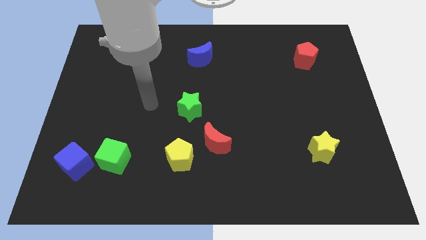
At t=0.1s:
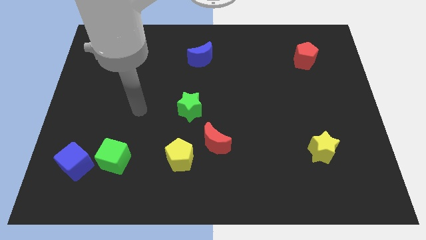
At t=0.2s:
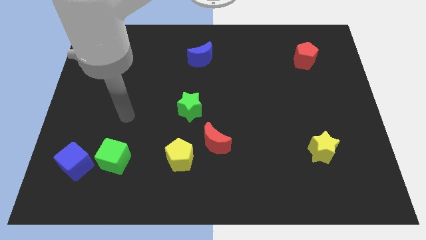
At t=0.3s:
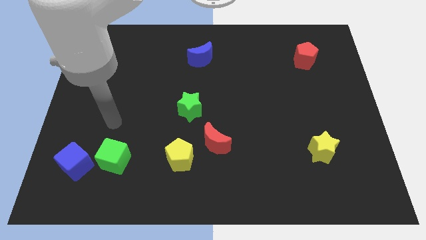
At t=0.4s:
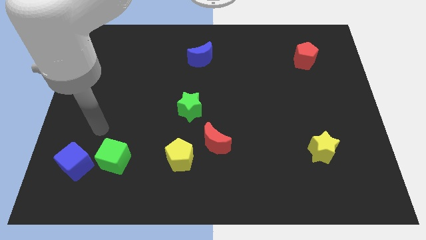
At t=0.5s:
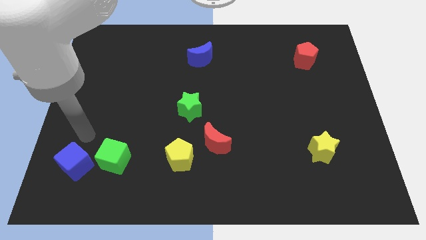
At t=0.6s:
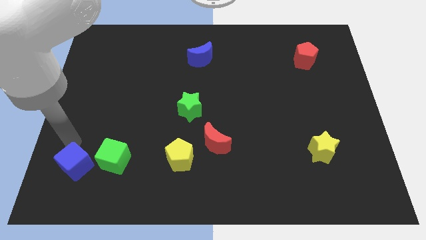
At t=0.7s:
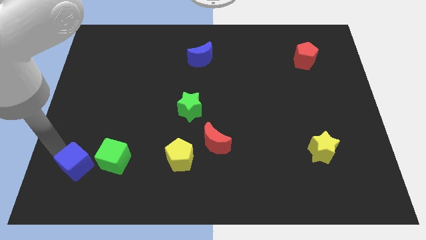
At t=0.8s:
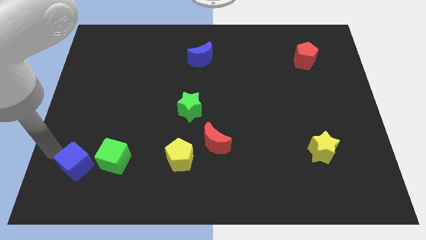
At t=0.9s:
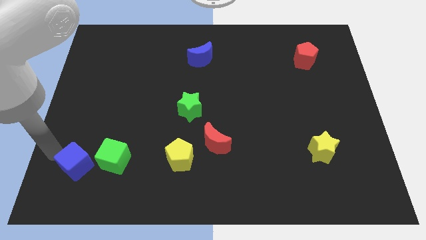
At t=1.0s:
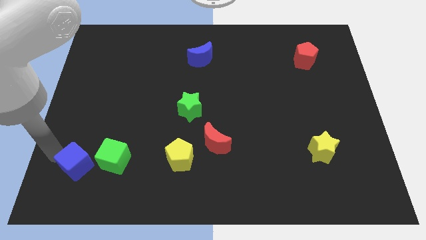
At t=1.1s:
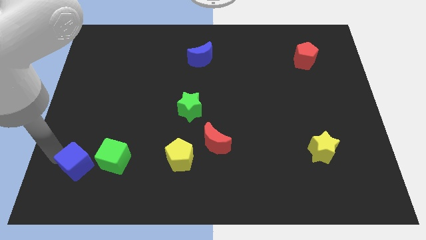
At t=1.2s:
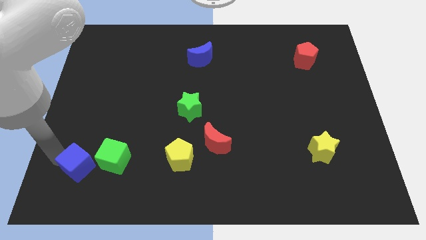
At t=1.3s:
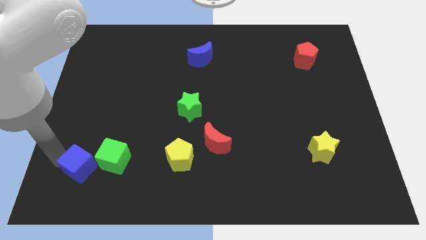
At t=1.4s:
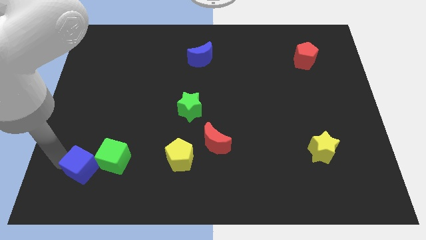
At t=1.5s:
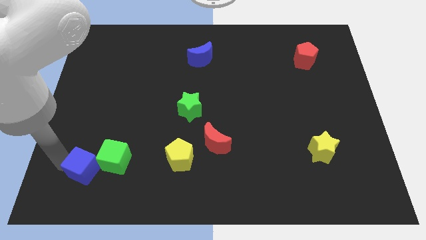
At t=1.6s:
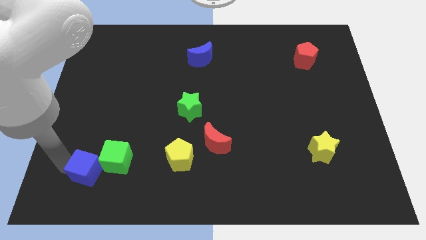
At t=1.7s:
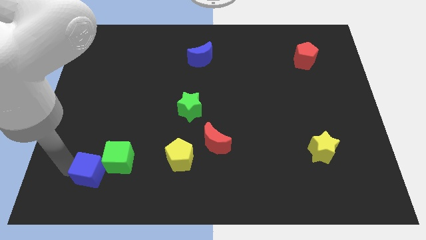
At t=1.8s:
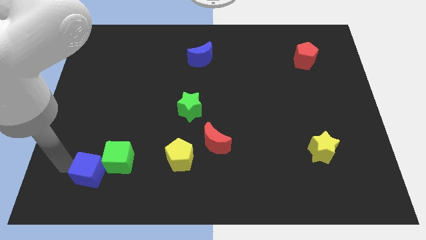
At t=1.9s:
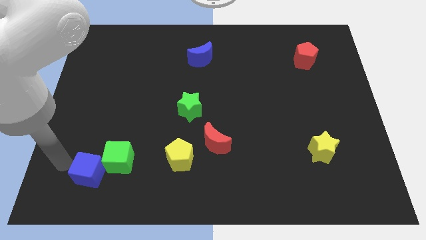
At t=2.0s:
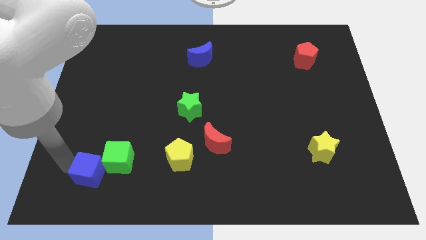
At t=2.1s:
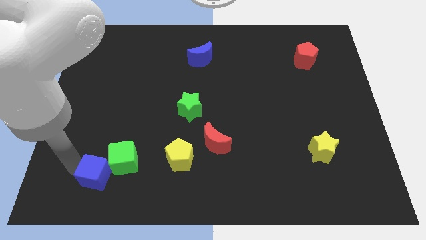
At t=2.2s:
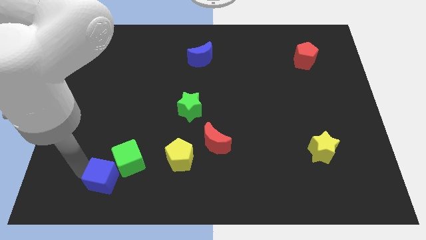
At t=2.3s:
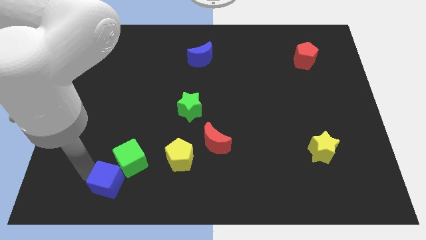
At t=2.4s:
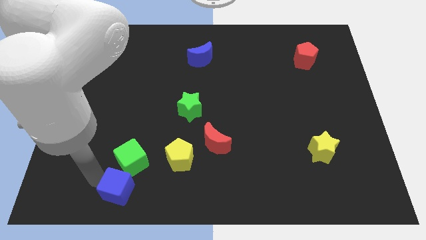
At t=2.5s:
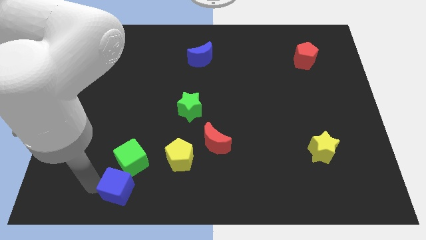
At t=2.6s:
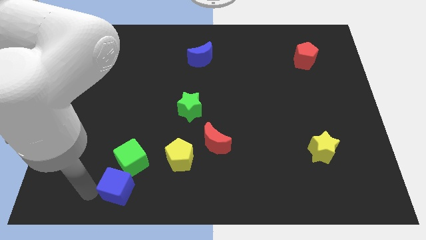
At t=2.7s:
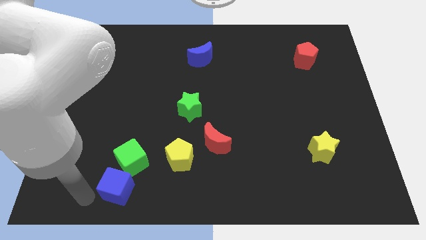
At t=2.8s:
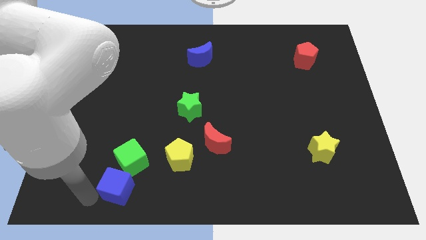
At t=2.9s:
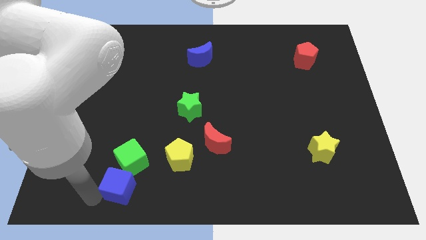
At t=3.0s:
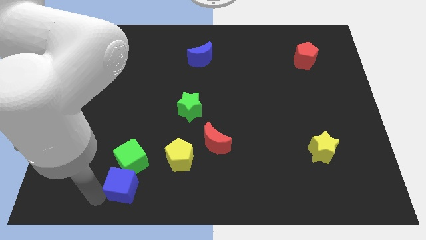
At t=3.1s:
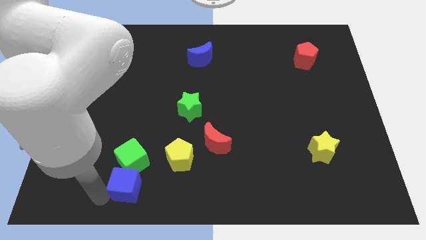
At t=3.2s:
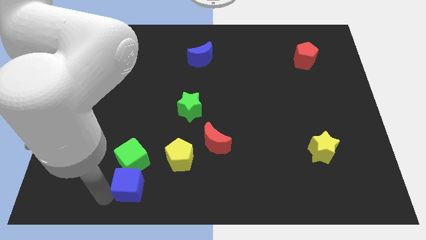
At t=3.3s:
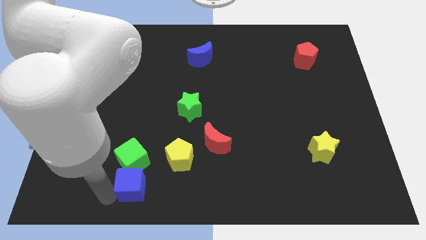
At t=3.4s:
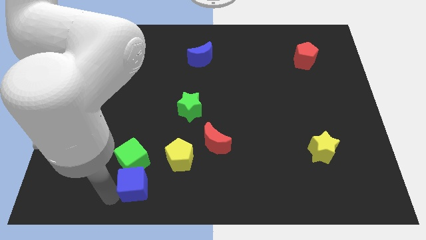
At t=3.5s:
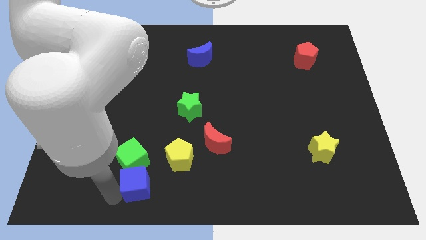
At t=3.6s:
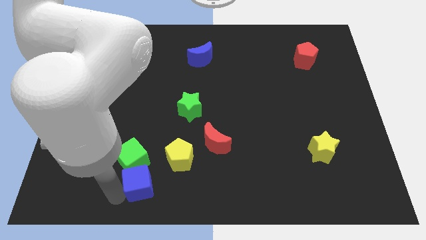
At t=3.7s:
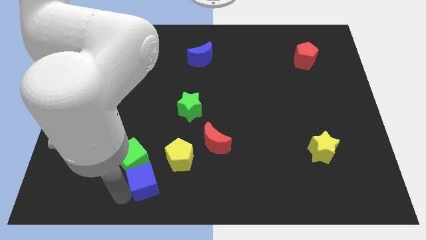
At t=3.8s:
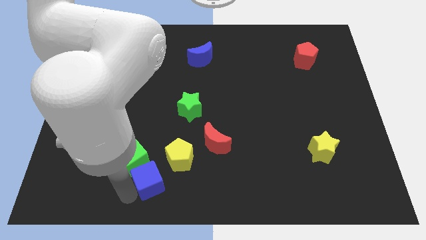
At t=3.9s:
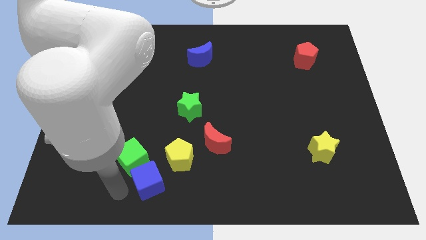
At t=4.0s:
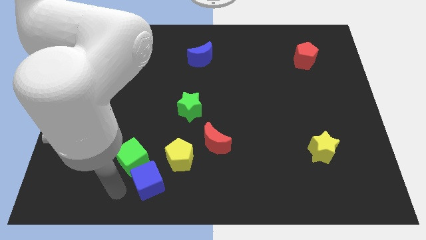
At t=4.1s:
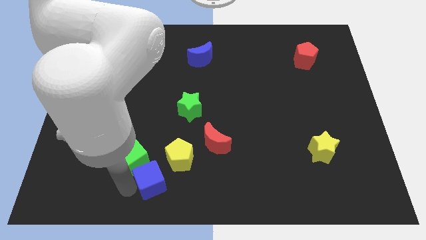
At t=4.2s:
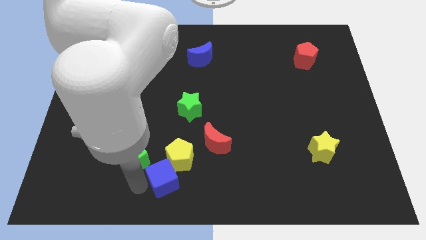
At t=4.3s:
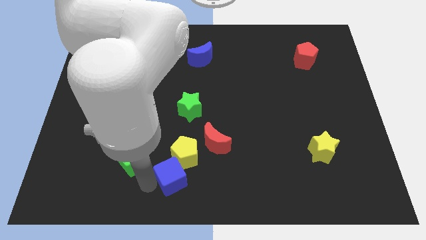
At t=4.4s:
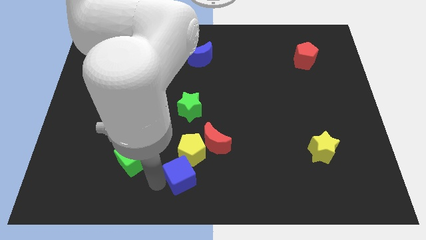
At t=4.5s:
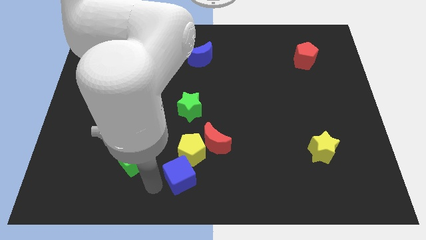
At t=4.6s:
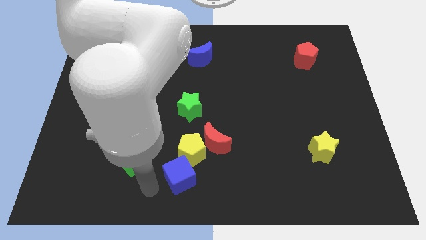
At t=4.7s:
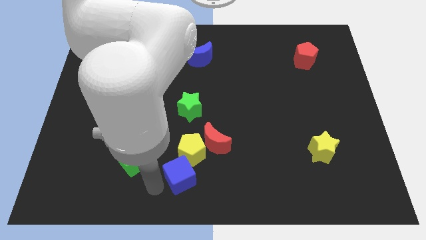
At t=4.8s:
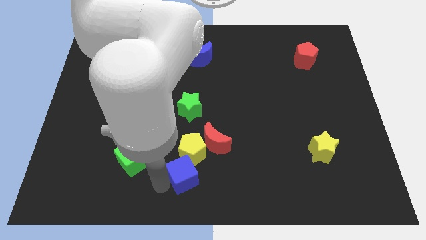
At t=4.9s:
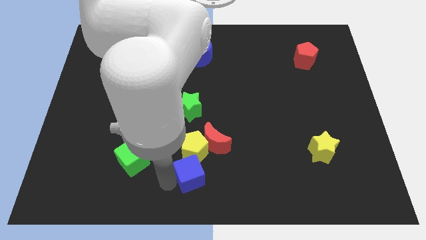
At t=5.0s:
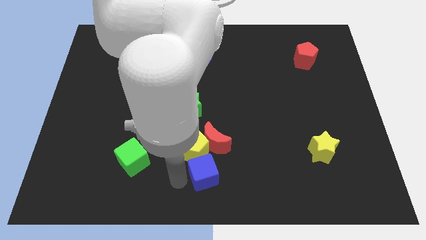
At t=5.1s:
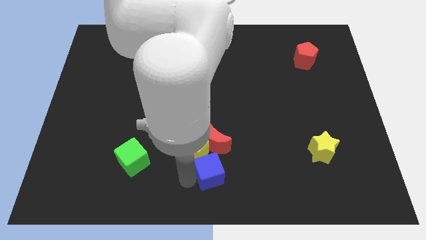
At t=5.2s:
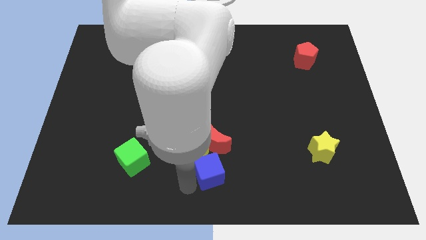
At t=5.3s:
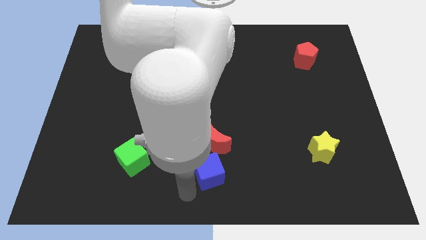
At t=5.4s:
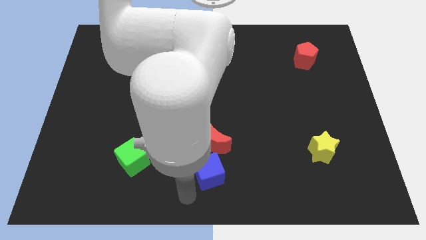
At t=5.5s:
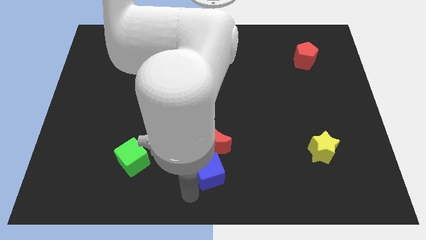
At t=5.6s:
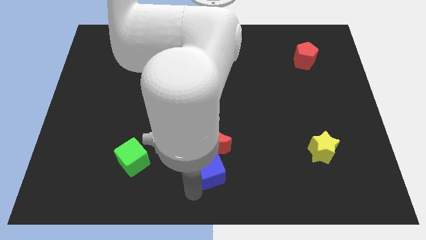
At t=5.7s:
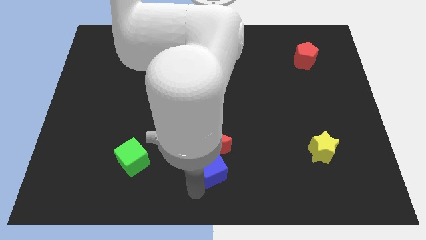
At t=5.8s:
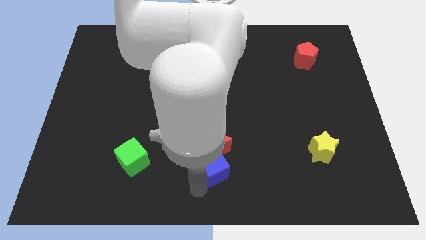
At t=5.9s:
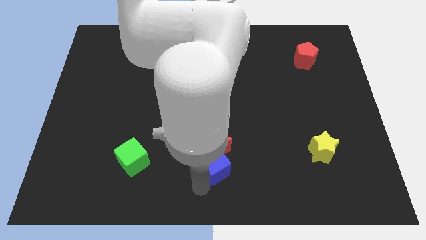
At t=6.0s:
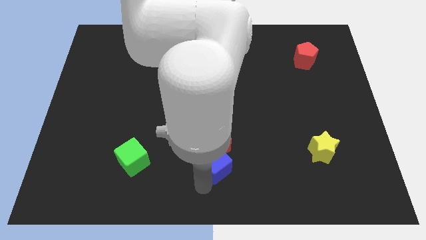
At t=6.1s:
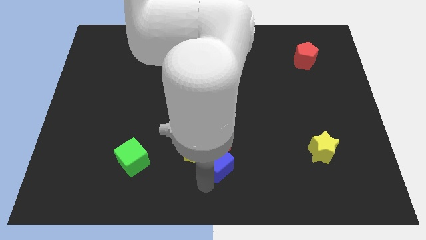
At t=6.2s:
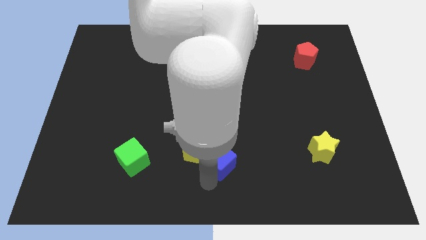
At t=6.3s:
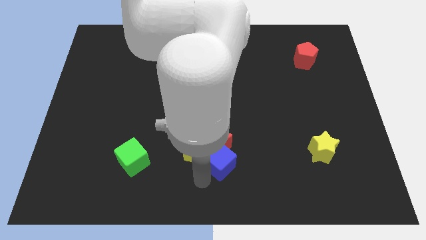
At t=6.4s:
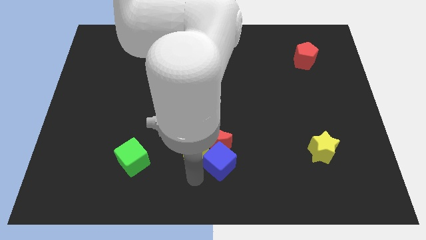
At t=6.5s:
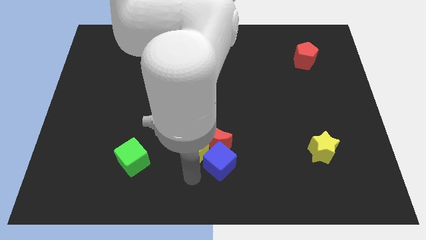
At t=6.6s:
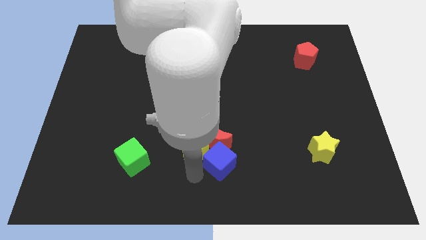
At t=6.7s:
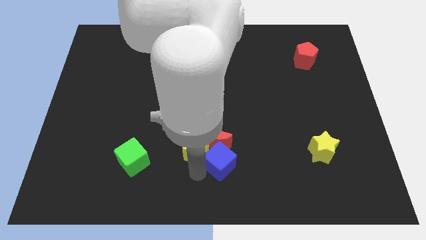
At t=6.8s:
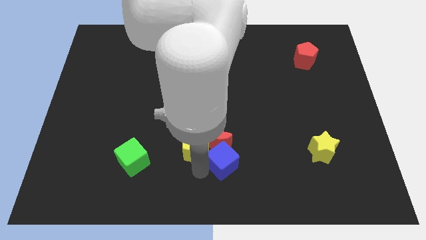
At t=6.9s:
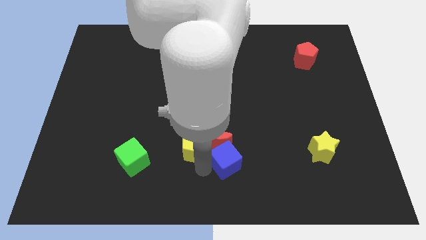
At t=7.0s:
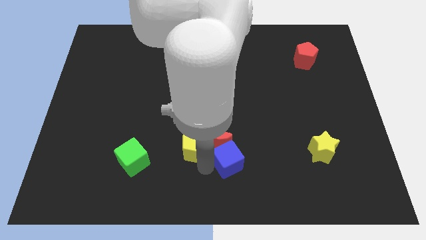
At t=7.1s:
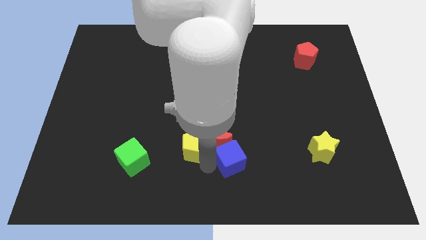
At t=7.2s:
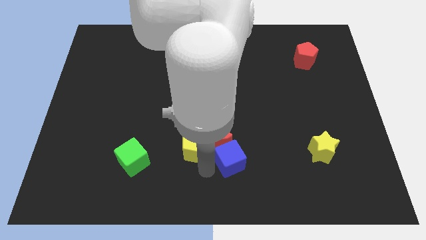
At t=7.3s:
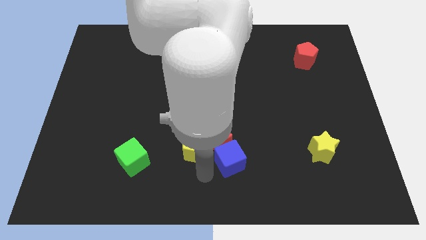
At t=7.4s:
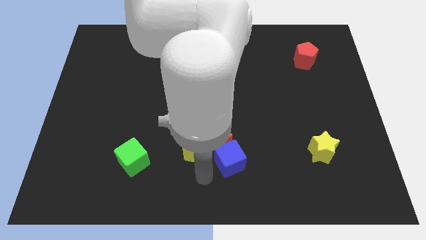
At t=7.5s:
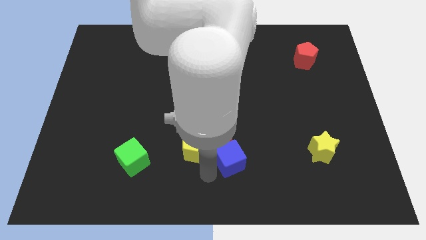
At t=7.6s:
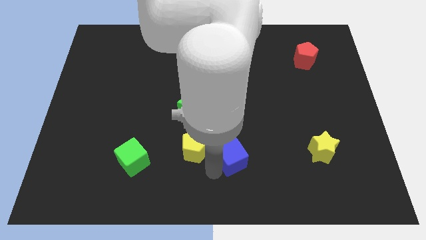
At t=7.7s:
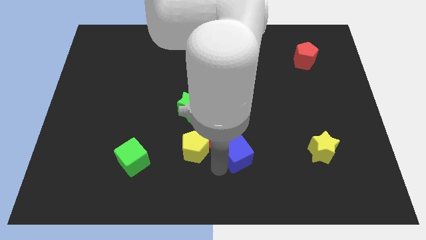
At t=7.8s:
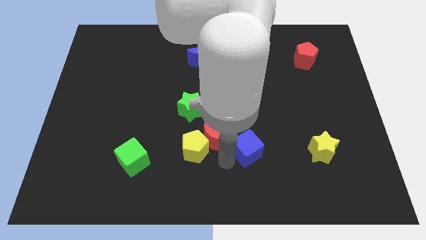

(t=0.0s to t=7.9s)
put the blue cube just left of the yellow star
